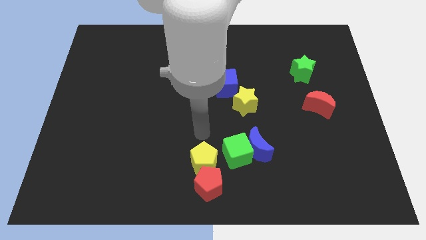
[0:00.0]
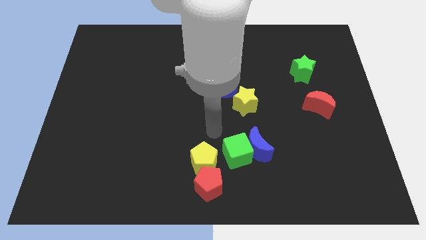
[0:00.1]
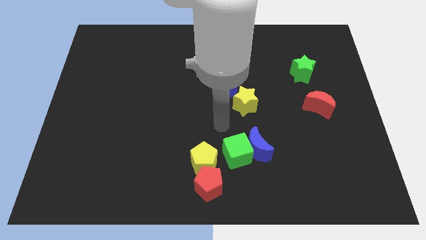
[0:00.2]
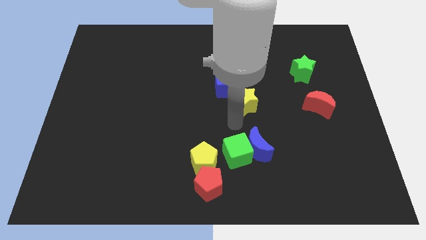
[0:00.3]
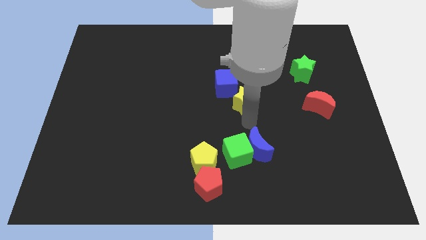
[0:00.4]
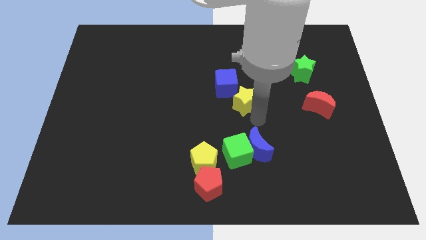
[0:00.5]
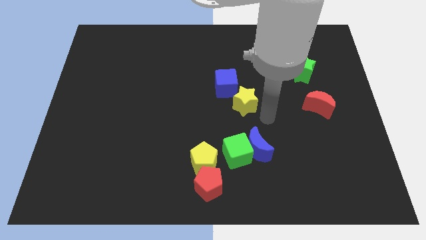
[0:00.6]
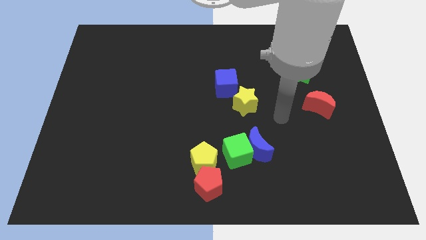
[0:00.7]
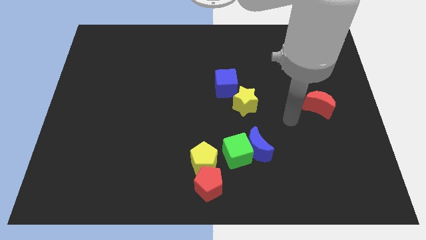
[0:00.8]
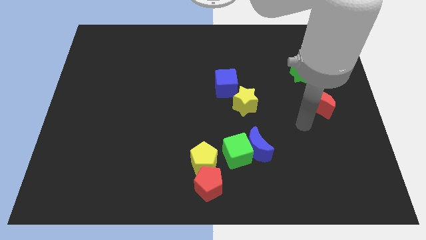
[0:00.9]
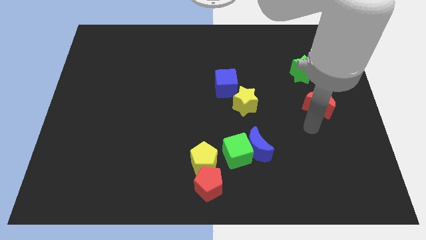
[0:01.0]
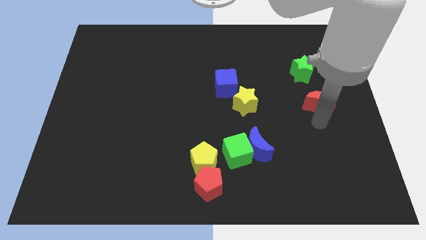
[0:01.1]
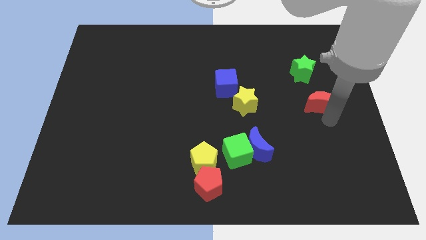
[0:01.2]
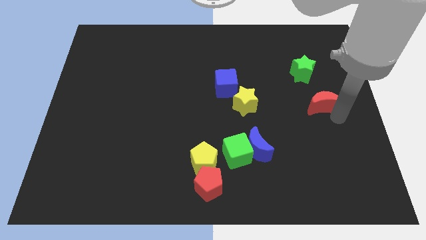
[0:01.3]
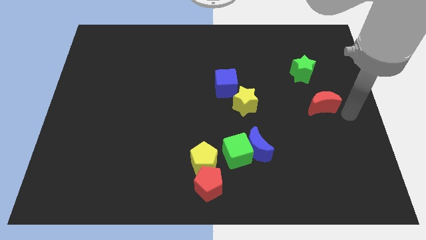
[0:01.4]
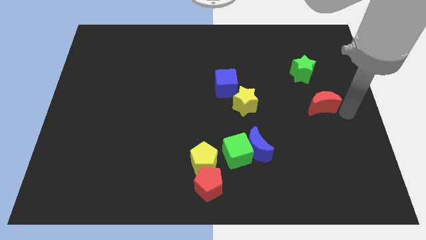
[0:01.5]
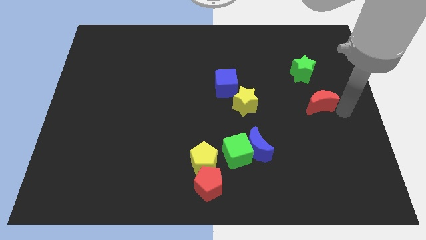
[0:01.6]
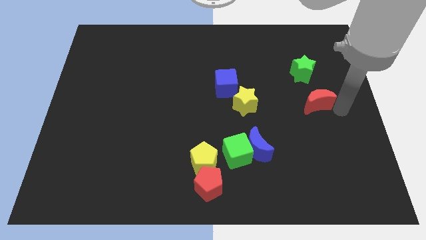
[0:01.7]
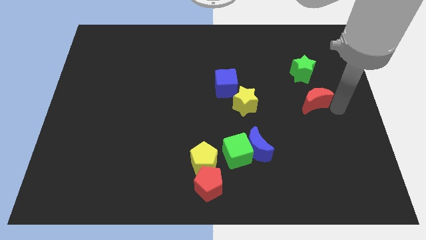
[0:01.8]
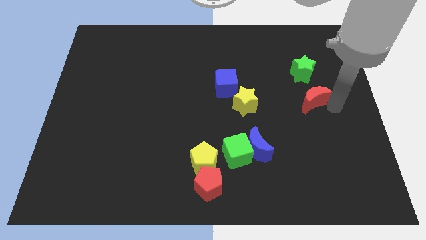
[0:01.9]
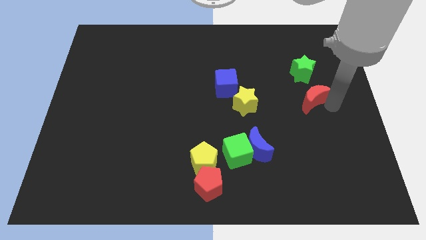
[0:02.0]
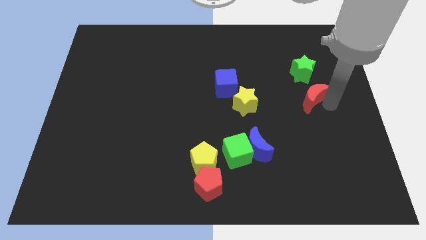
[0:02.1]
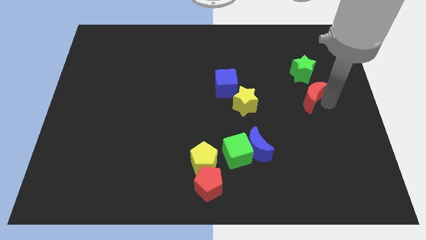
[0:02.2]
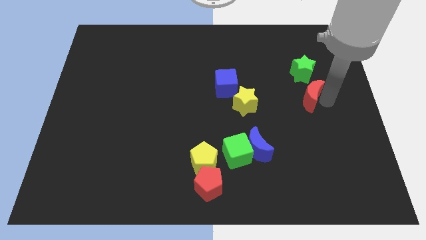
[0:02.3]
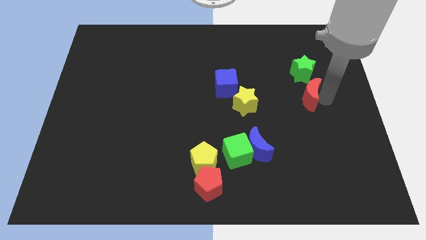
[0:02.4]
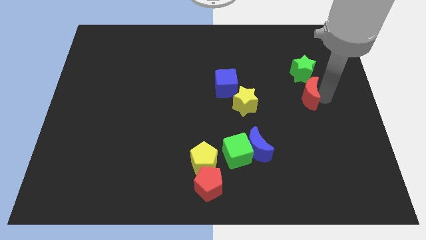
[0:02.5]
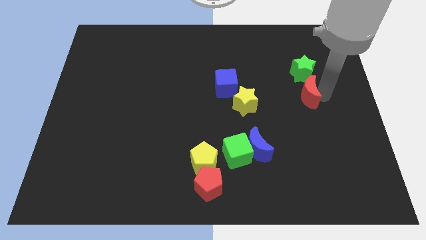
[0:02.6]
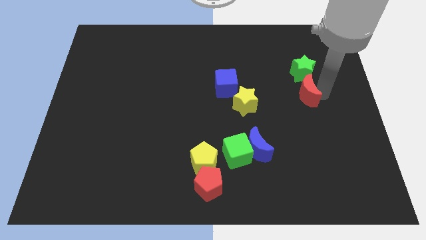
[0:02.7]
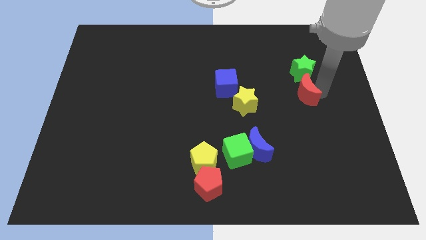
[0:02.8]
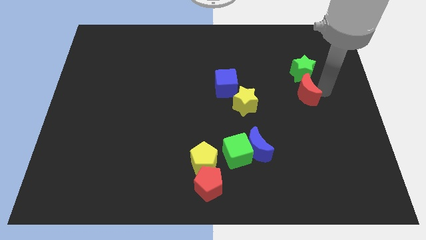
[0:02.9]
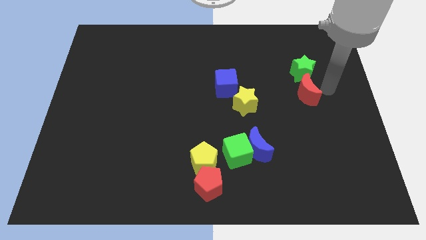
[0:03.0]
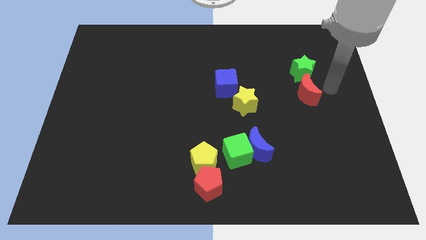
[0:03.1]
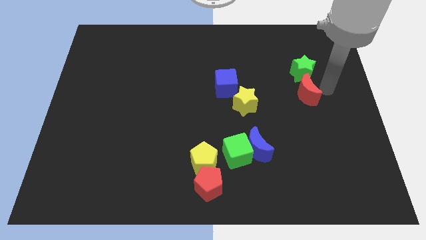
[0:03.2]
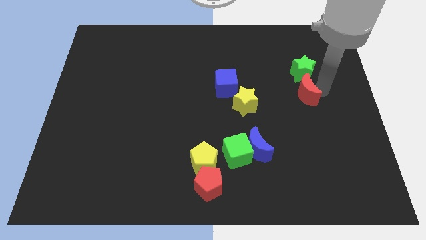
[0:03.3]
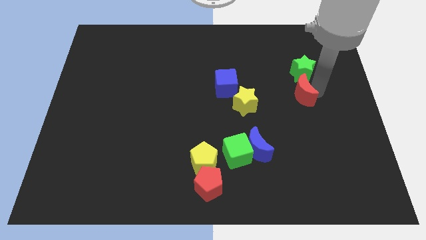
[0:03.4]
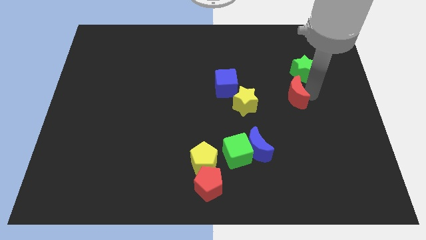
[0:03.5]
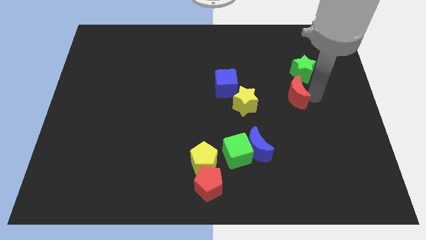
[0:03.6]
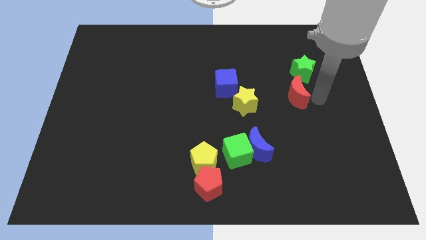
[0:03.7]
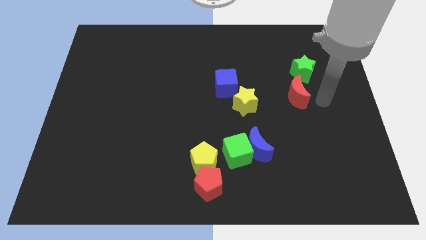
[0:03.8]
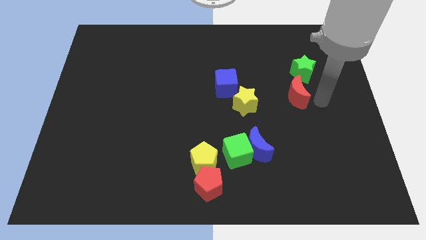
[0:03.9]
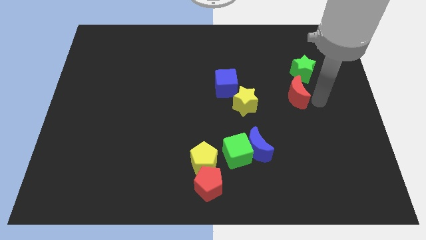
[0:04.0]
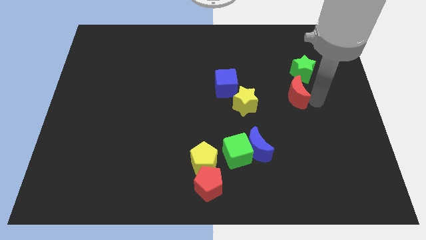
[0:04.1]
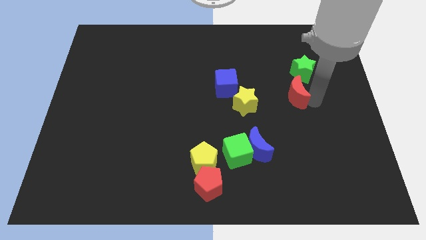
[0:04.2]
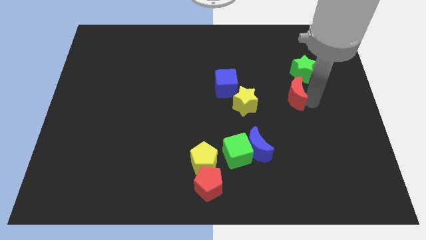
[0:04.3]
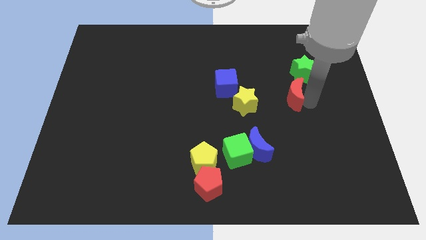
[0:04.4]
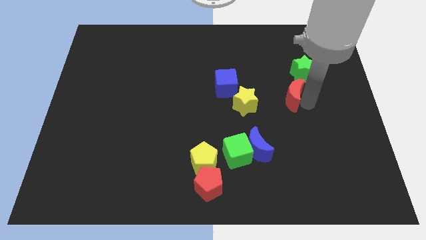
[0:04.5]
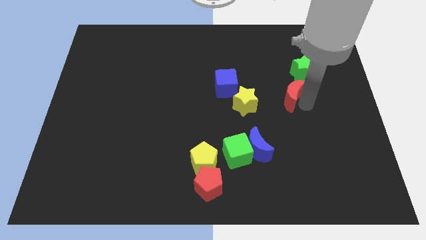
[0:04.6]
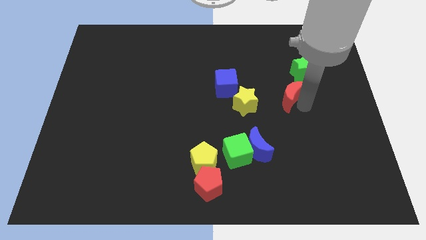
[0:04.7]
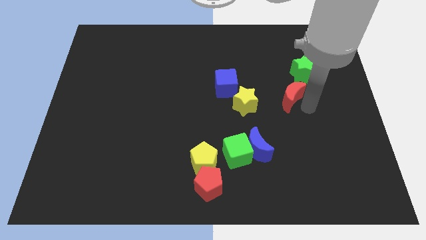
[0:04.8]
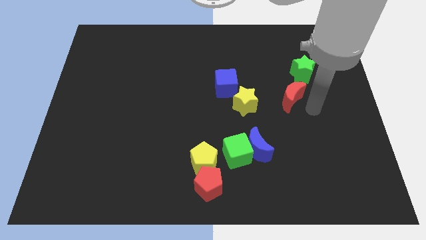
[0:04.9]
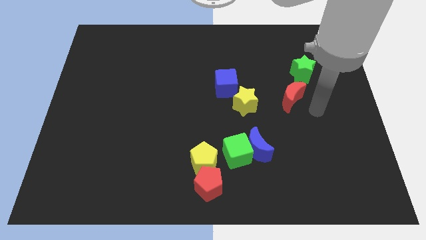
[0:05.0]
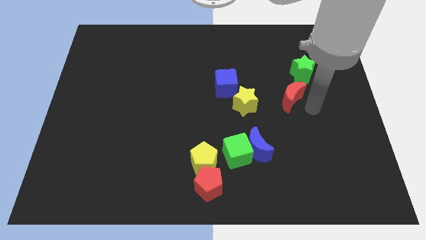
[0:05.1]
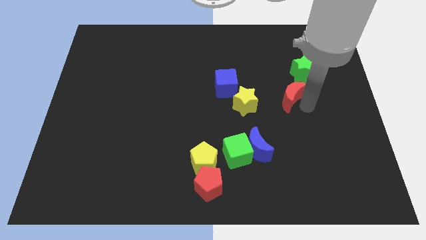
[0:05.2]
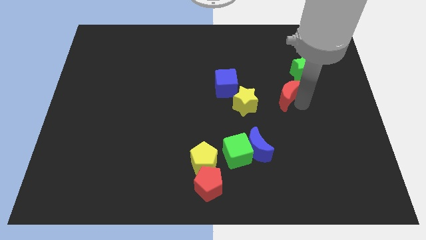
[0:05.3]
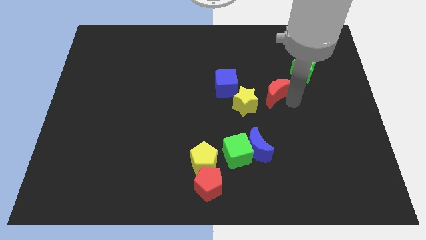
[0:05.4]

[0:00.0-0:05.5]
slightly push the red moon up and to the left diagonally

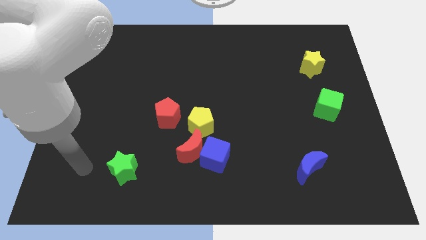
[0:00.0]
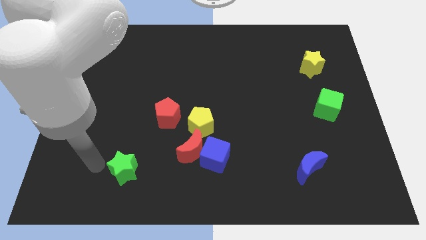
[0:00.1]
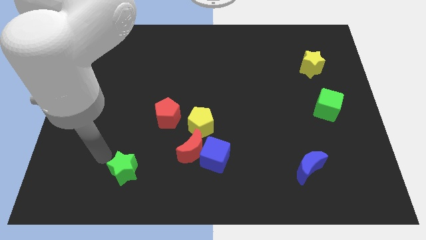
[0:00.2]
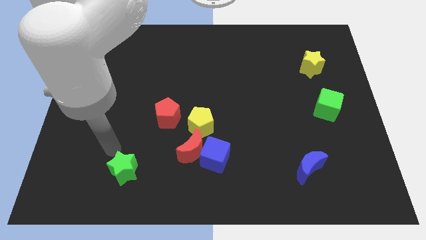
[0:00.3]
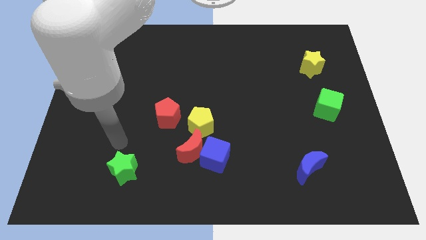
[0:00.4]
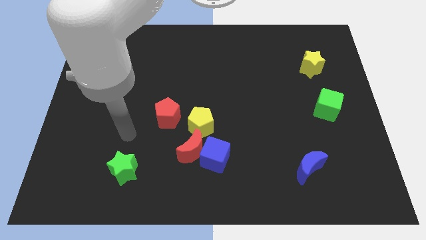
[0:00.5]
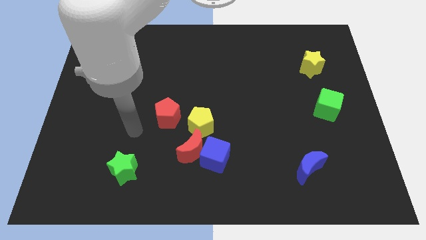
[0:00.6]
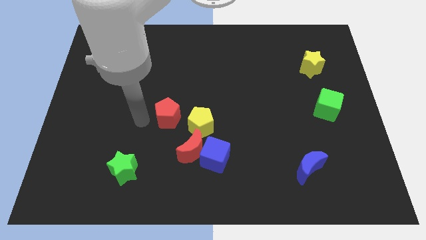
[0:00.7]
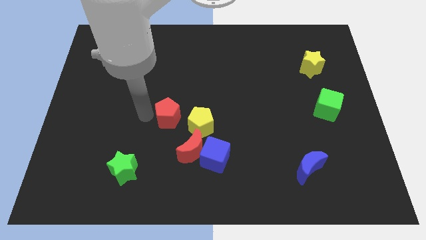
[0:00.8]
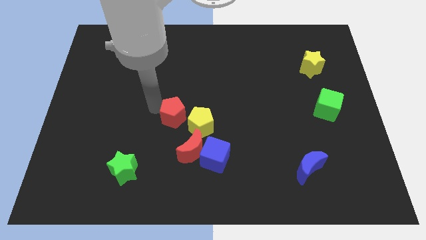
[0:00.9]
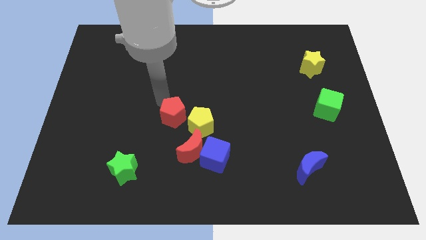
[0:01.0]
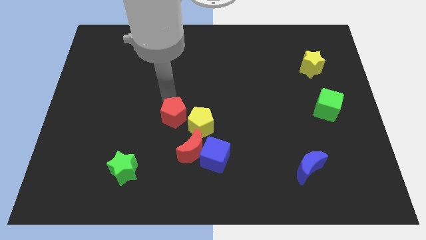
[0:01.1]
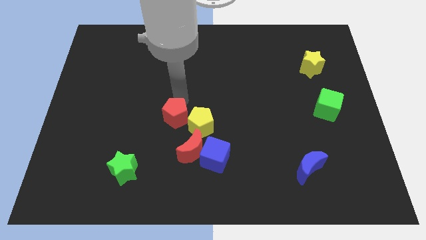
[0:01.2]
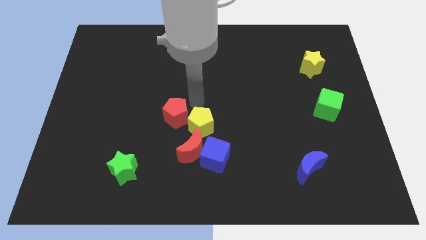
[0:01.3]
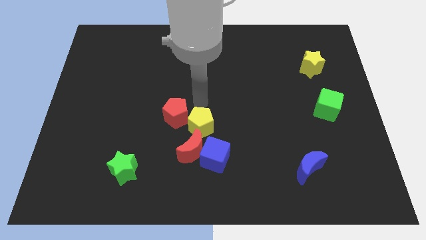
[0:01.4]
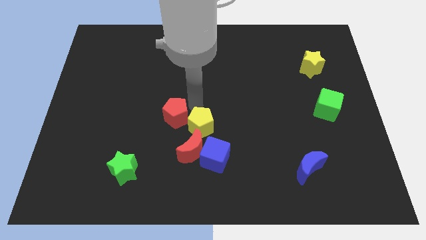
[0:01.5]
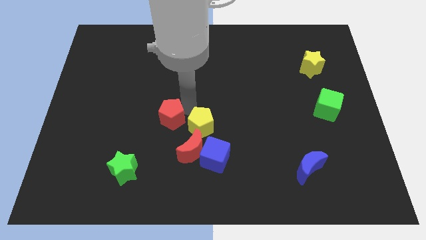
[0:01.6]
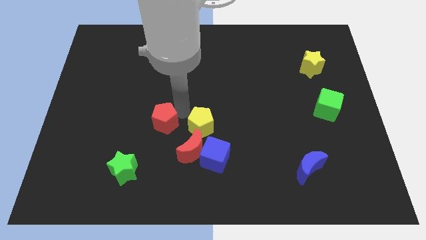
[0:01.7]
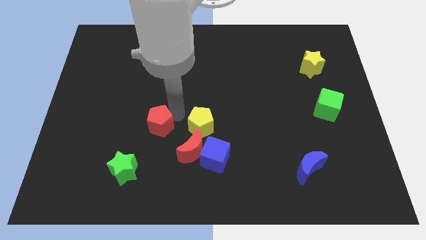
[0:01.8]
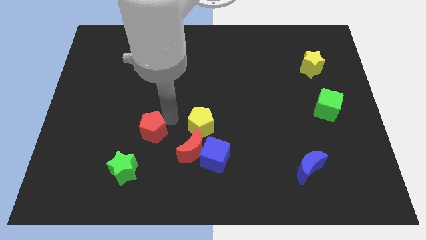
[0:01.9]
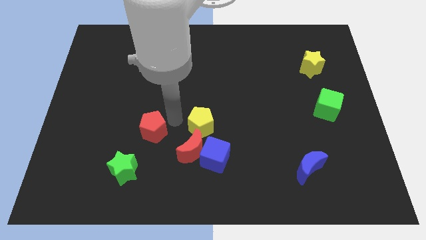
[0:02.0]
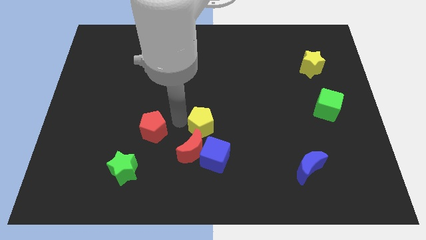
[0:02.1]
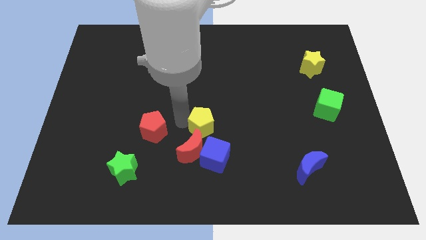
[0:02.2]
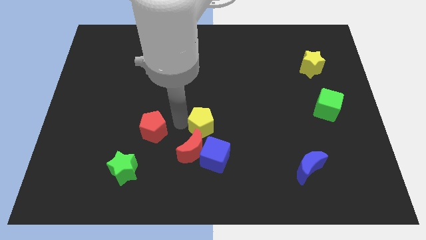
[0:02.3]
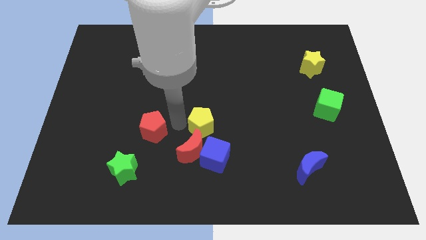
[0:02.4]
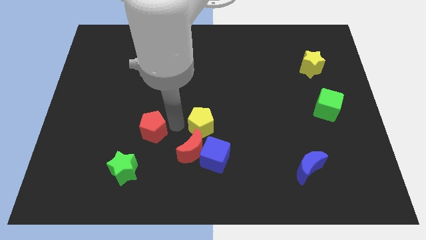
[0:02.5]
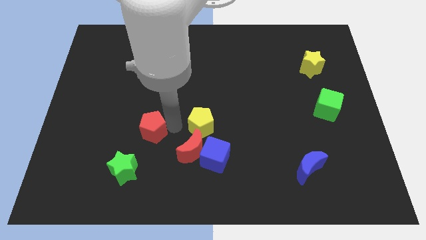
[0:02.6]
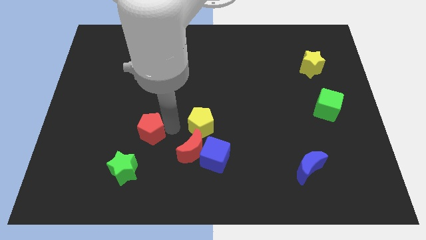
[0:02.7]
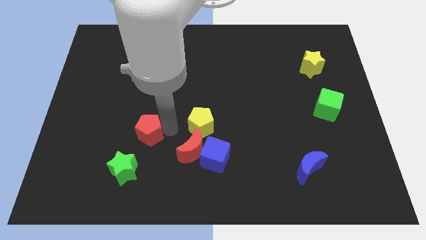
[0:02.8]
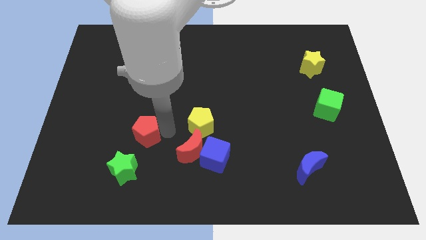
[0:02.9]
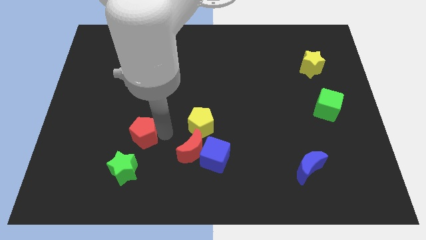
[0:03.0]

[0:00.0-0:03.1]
slide the red pentagon a little bit down and then left
